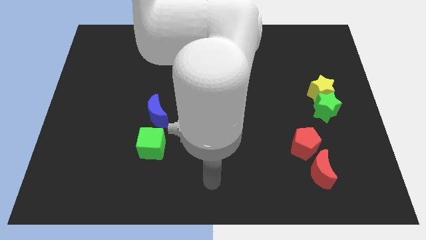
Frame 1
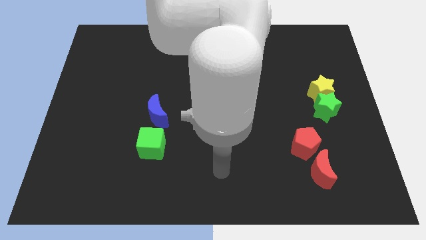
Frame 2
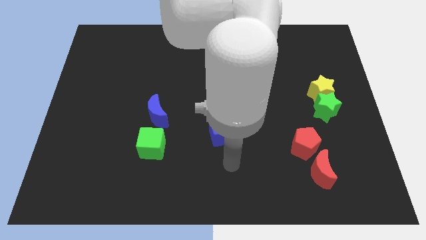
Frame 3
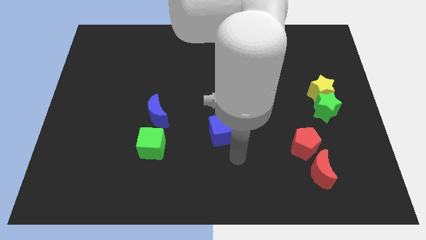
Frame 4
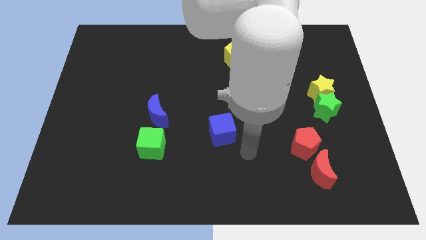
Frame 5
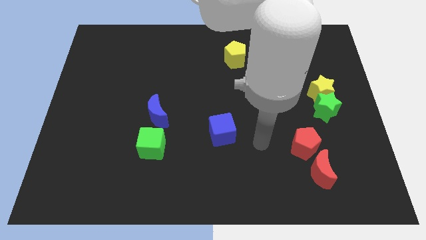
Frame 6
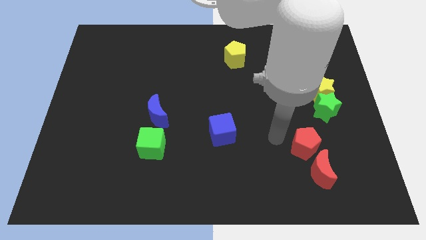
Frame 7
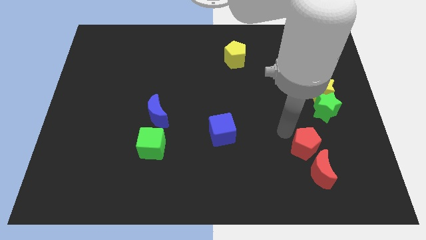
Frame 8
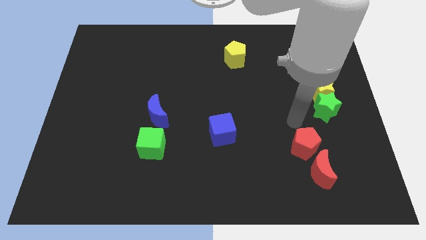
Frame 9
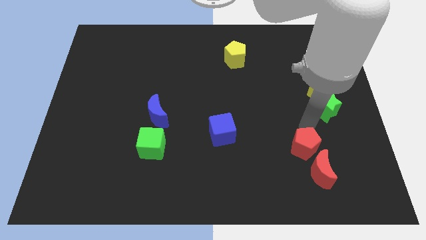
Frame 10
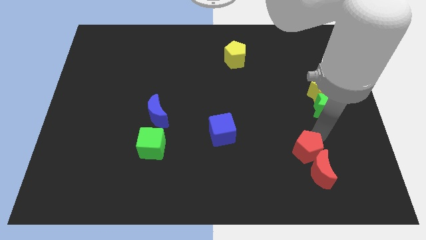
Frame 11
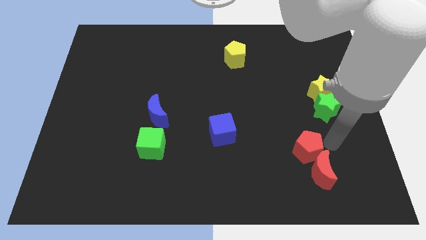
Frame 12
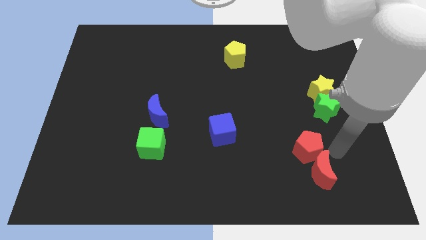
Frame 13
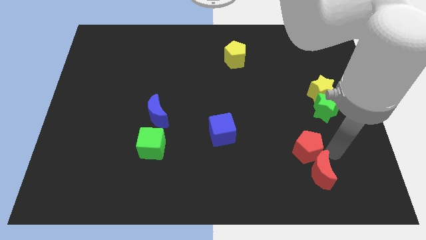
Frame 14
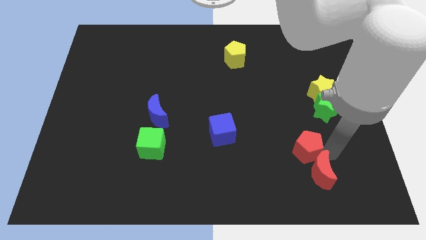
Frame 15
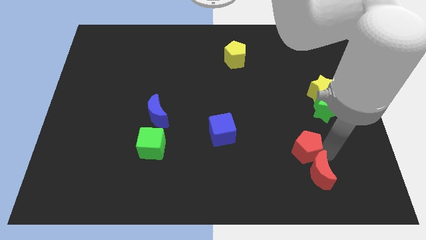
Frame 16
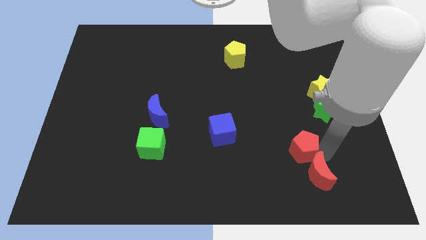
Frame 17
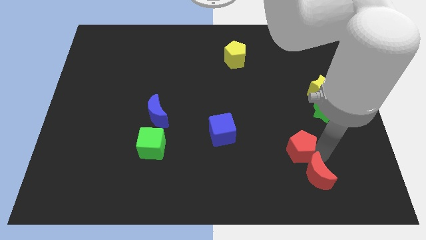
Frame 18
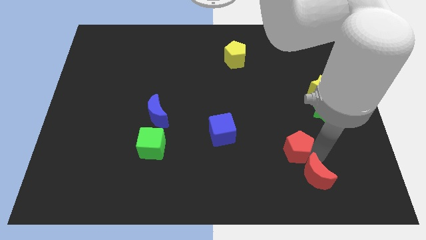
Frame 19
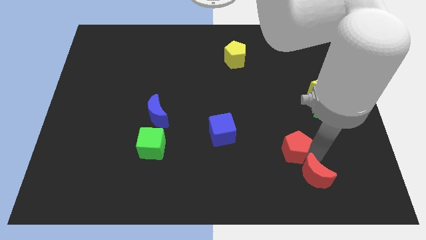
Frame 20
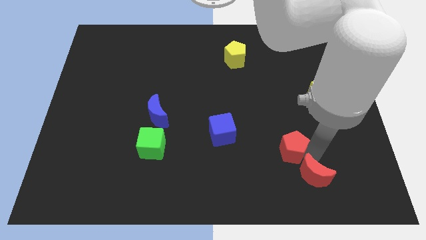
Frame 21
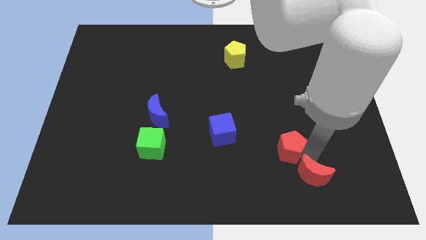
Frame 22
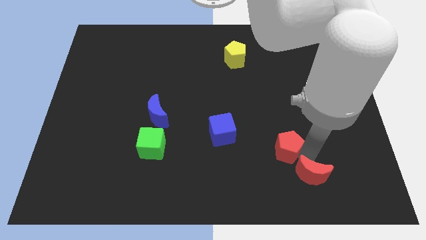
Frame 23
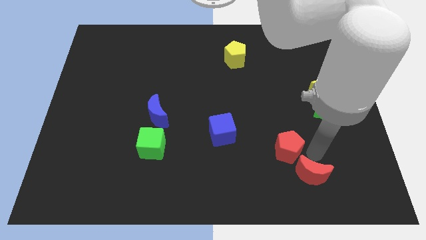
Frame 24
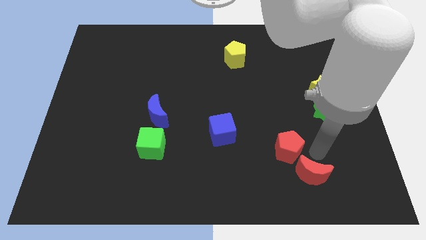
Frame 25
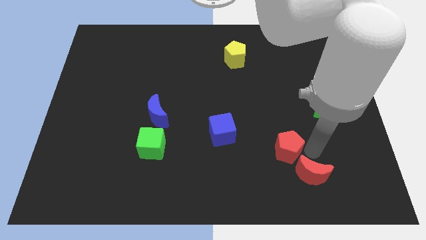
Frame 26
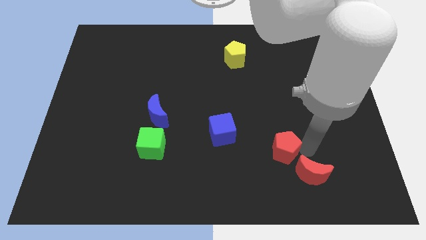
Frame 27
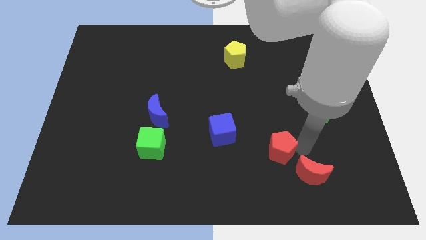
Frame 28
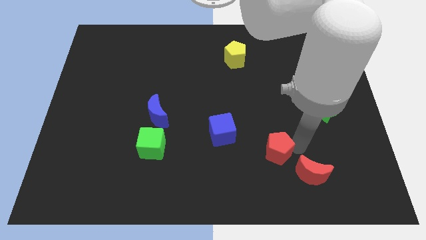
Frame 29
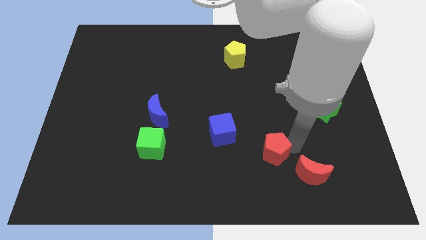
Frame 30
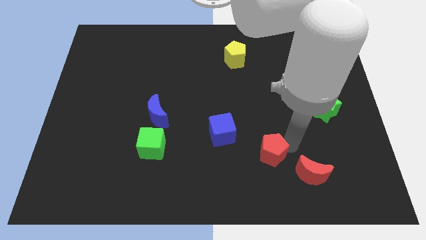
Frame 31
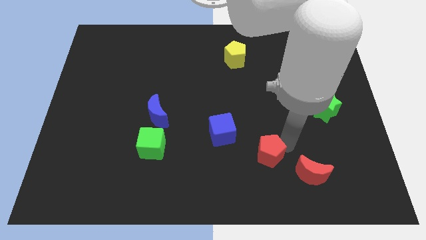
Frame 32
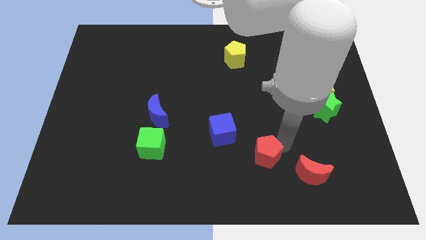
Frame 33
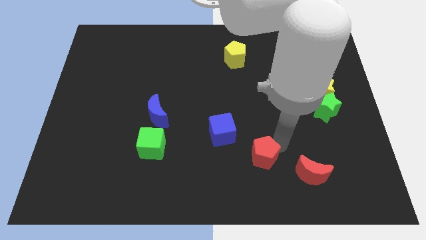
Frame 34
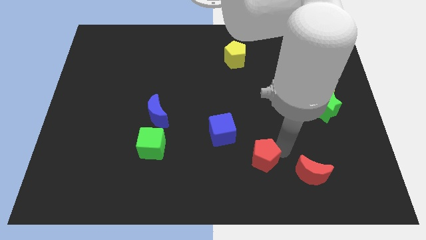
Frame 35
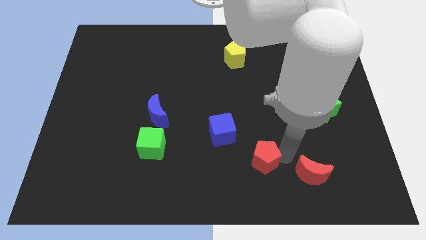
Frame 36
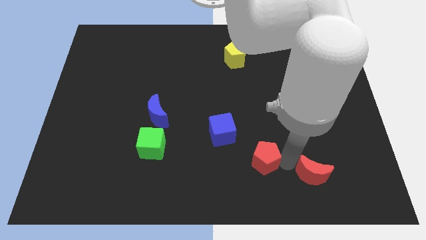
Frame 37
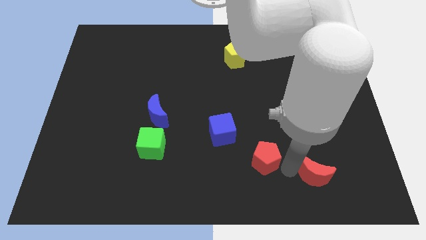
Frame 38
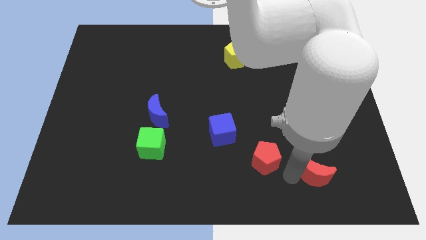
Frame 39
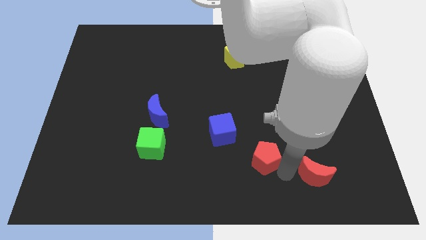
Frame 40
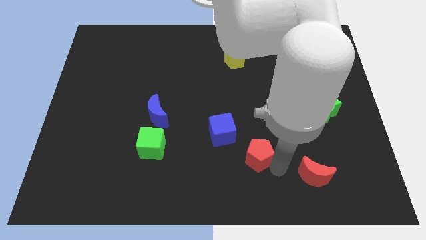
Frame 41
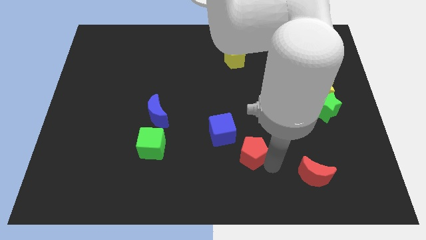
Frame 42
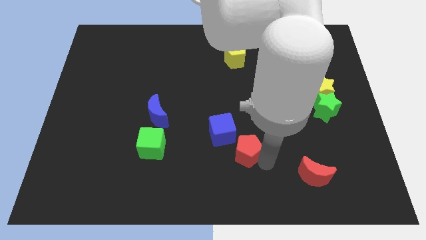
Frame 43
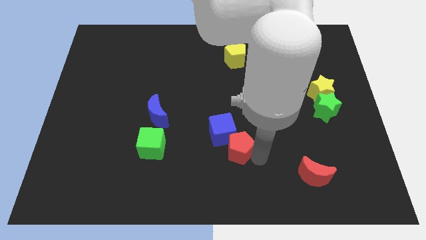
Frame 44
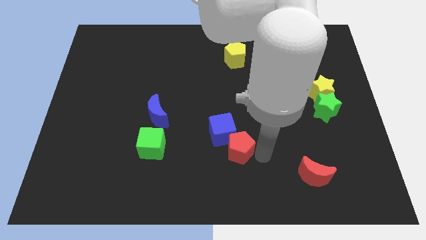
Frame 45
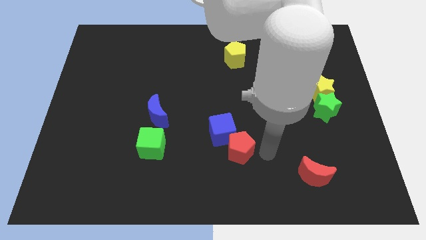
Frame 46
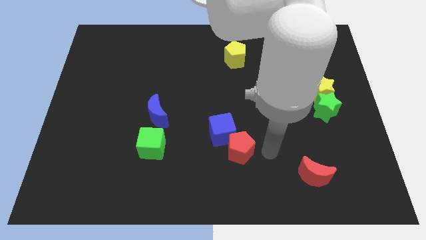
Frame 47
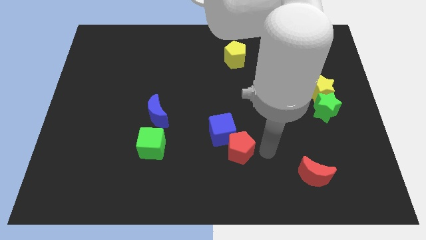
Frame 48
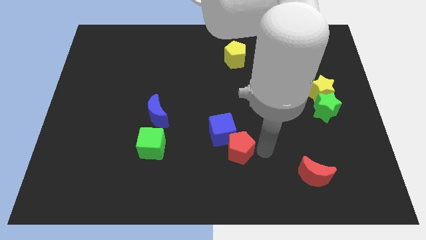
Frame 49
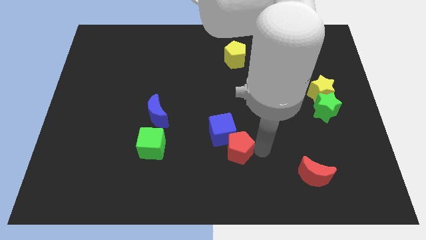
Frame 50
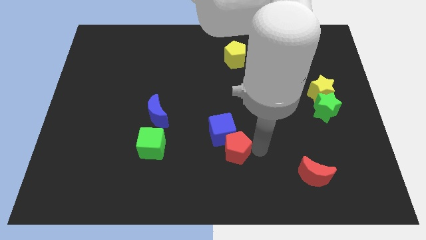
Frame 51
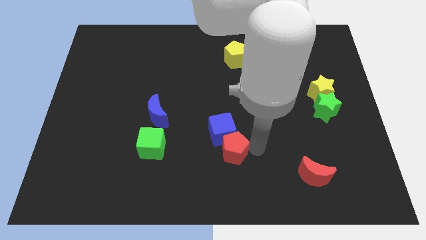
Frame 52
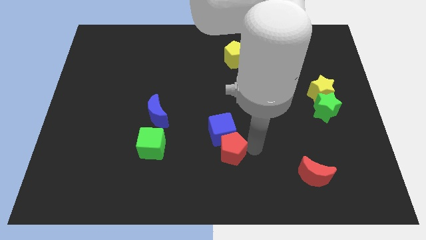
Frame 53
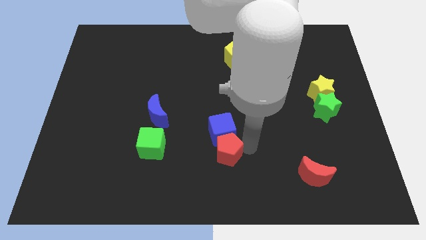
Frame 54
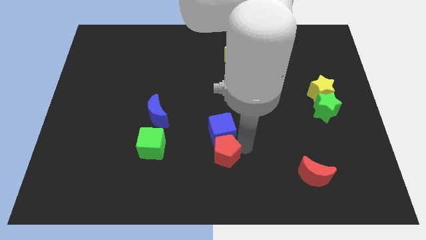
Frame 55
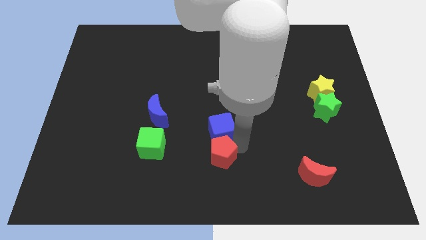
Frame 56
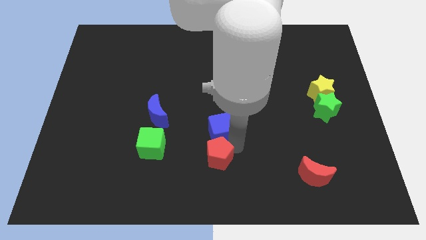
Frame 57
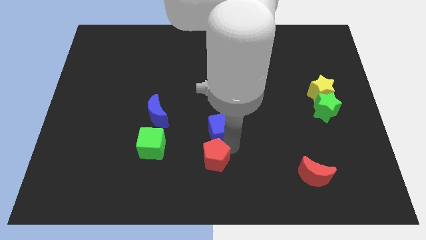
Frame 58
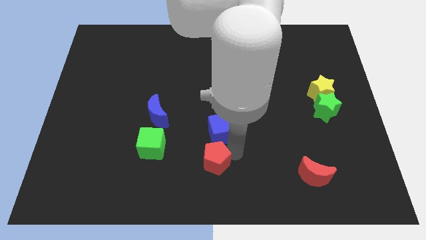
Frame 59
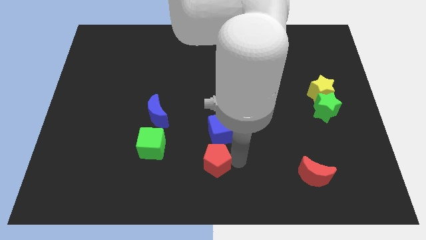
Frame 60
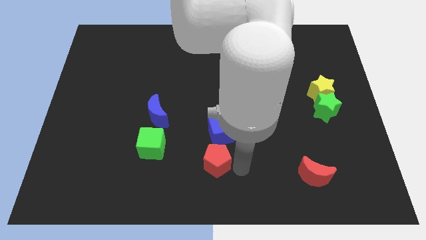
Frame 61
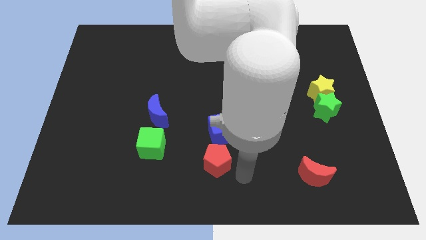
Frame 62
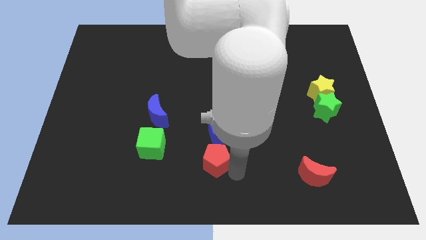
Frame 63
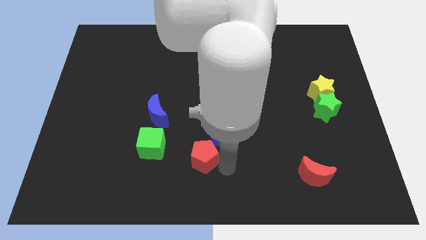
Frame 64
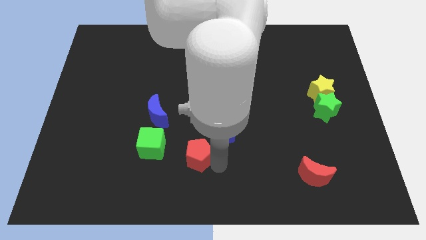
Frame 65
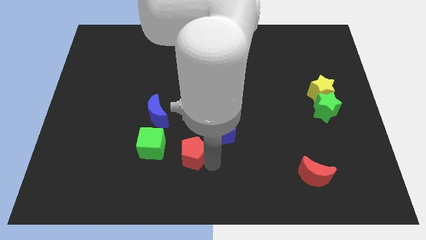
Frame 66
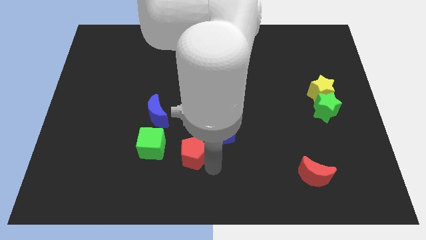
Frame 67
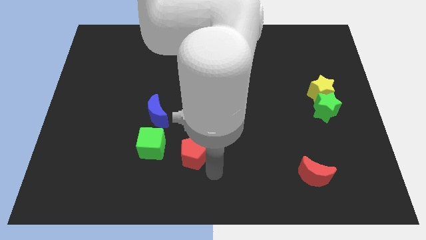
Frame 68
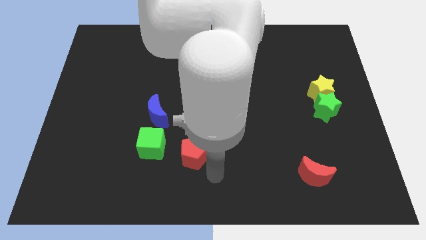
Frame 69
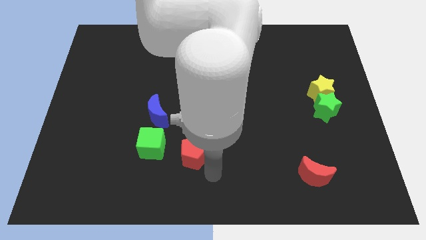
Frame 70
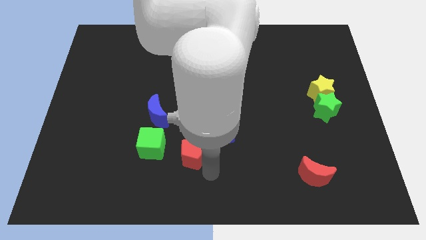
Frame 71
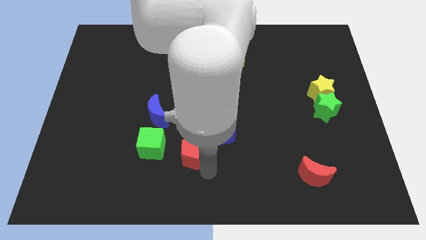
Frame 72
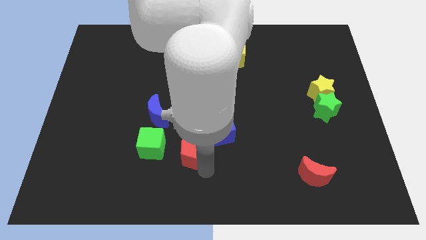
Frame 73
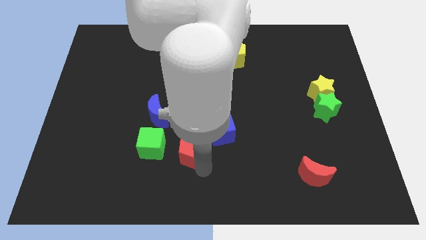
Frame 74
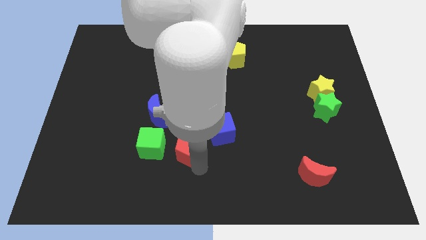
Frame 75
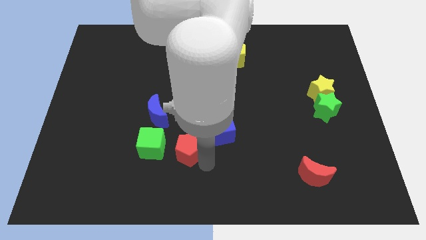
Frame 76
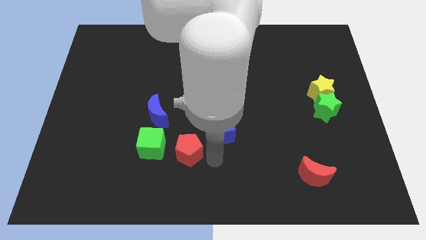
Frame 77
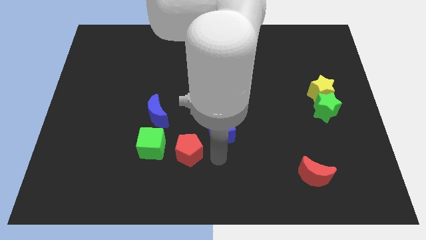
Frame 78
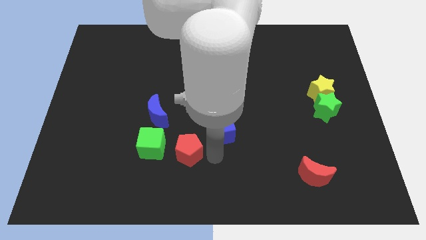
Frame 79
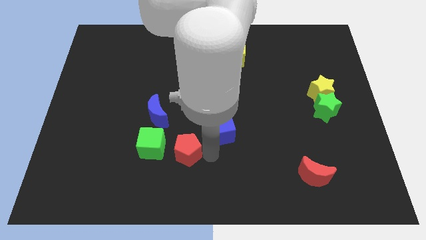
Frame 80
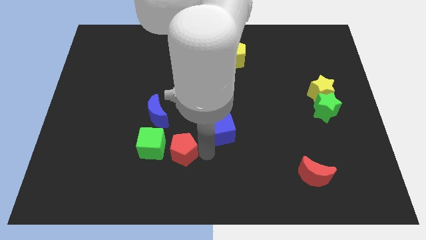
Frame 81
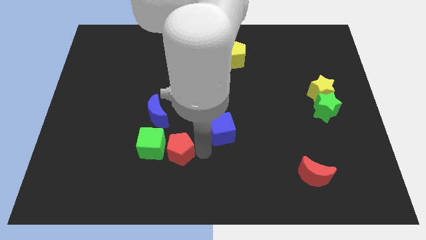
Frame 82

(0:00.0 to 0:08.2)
slide the red pentagon close to the green cube
